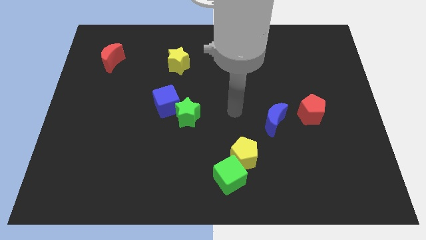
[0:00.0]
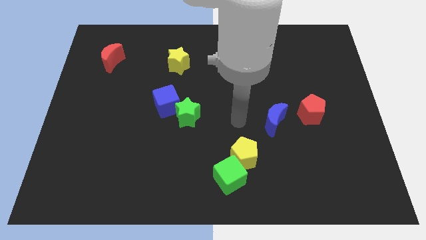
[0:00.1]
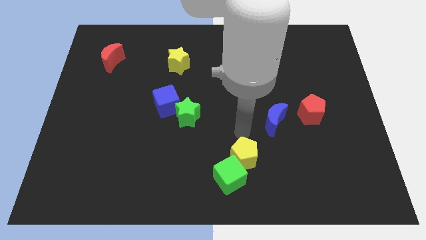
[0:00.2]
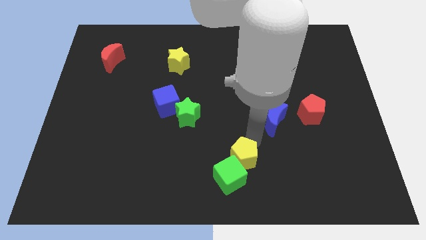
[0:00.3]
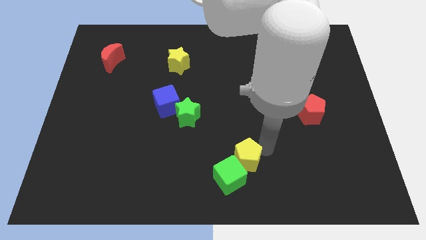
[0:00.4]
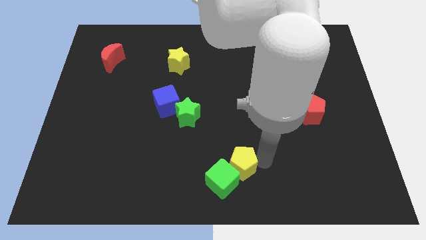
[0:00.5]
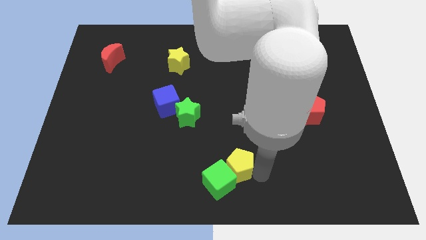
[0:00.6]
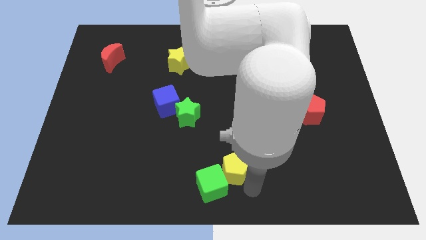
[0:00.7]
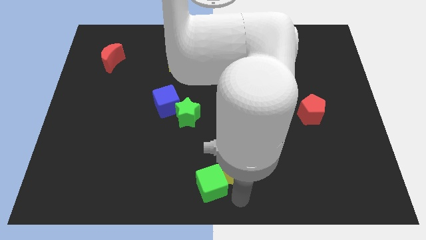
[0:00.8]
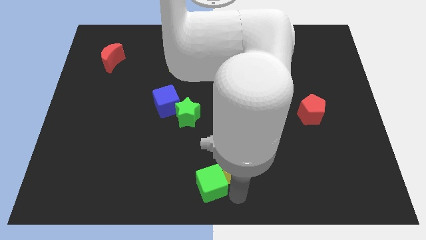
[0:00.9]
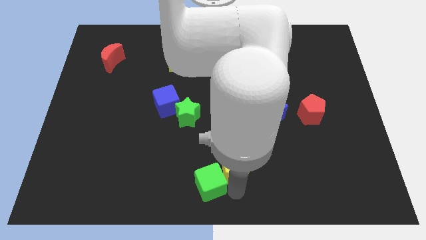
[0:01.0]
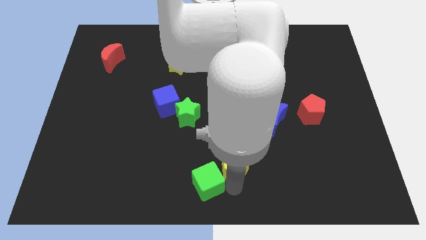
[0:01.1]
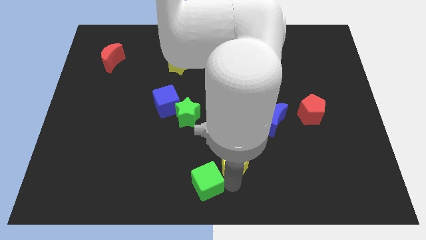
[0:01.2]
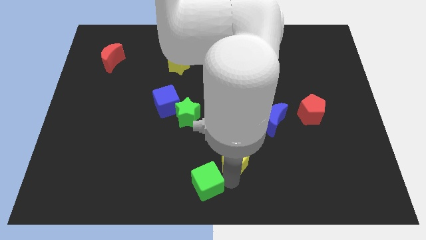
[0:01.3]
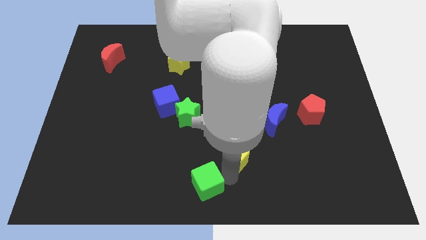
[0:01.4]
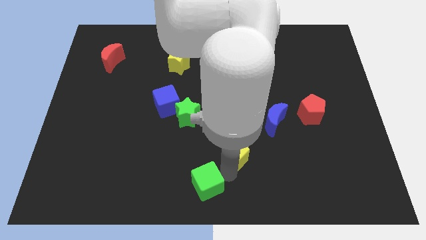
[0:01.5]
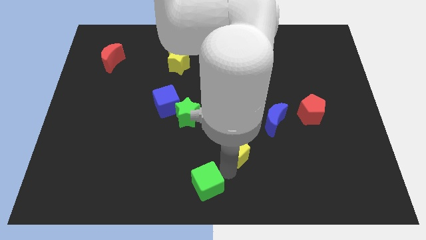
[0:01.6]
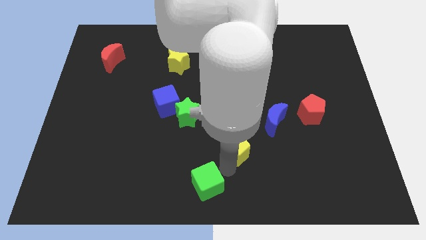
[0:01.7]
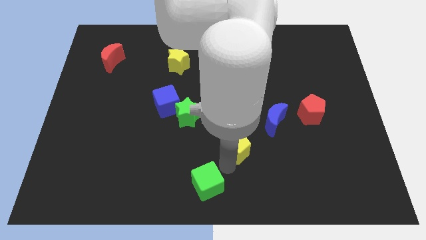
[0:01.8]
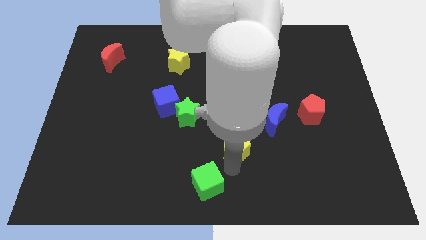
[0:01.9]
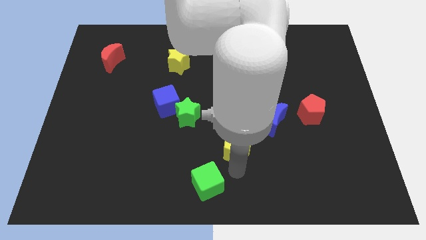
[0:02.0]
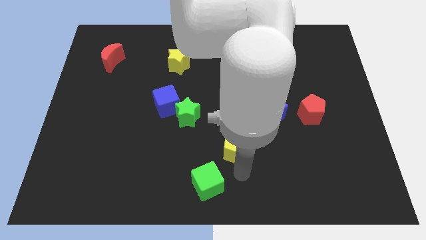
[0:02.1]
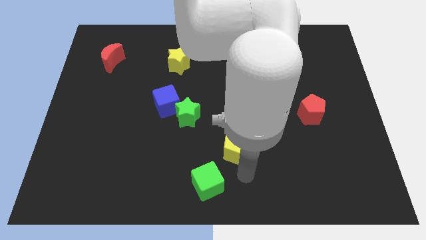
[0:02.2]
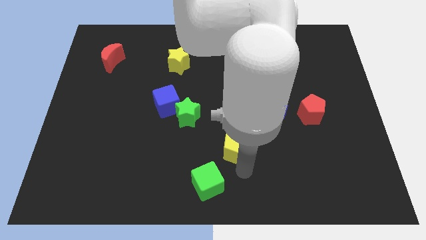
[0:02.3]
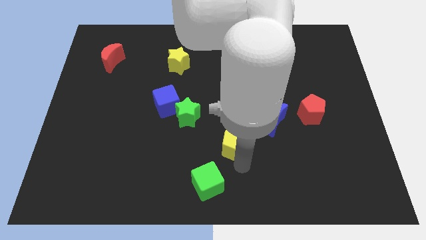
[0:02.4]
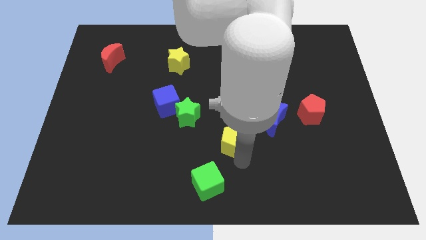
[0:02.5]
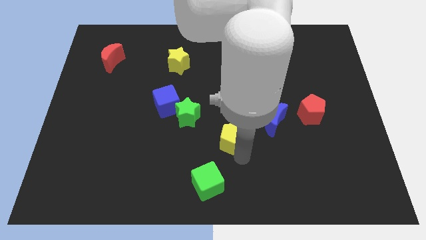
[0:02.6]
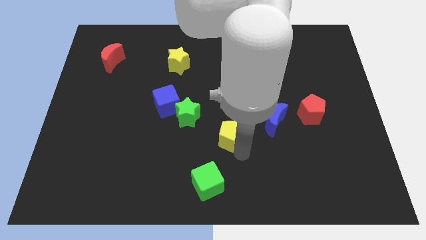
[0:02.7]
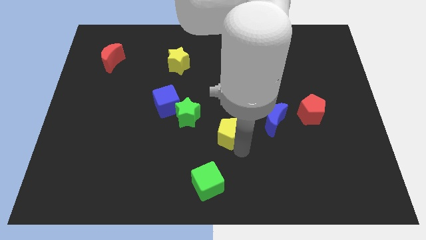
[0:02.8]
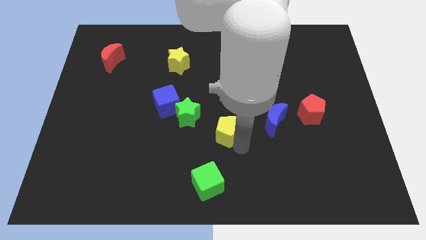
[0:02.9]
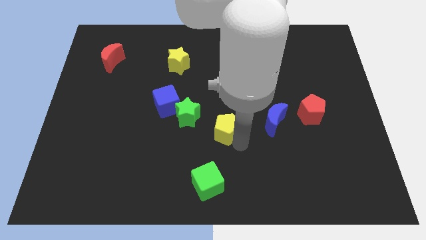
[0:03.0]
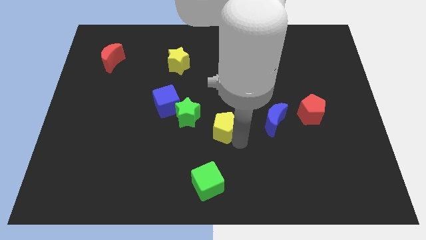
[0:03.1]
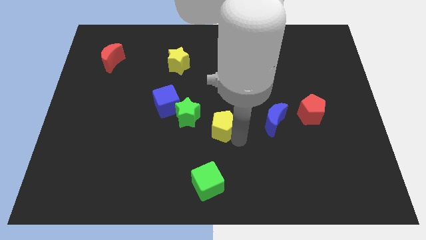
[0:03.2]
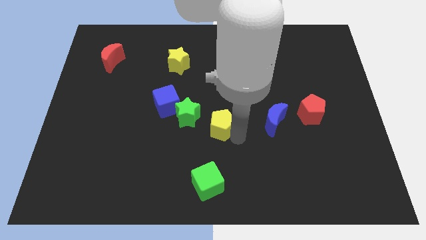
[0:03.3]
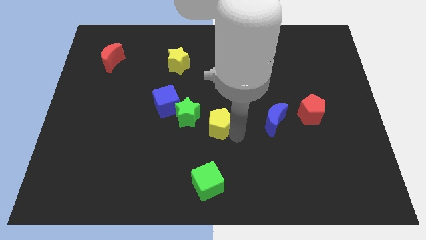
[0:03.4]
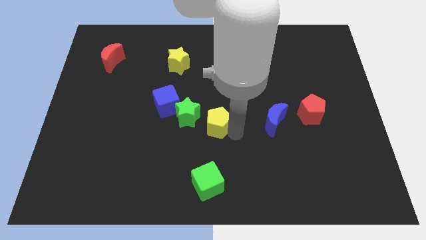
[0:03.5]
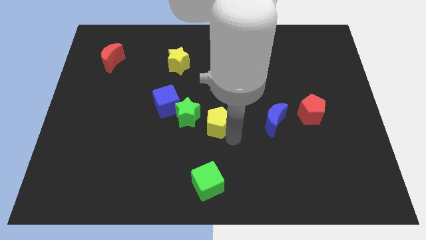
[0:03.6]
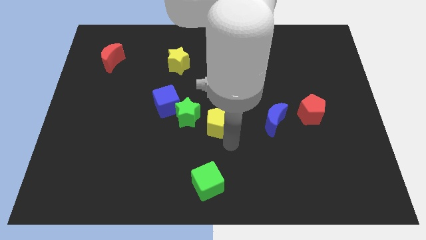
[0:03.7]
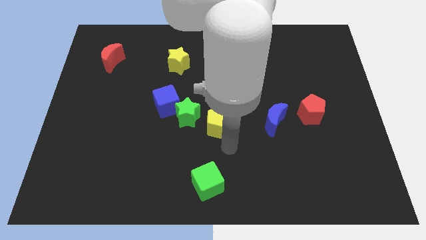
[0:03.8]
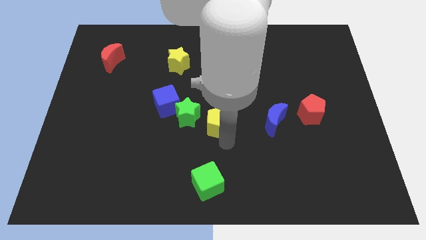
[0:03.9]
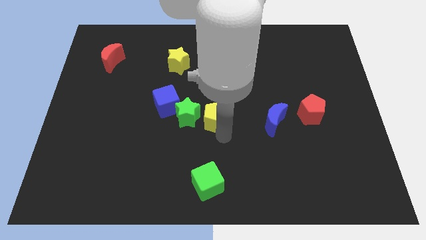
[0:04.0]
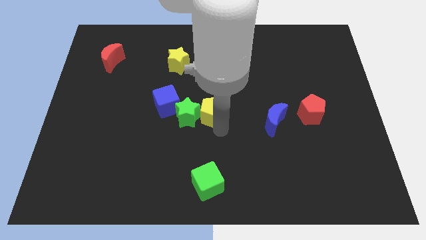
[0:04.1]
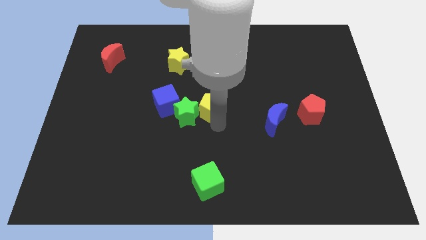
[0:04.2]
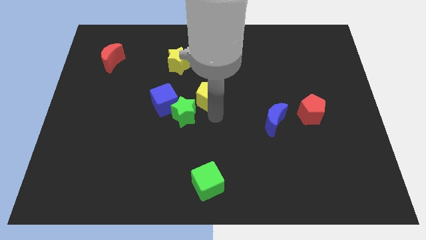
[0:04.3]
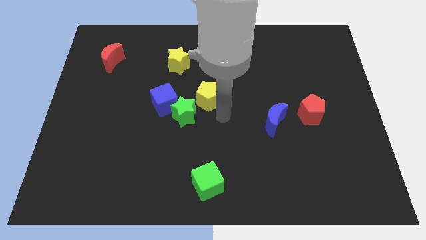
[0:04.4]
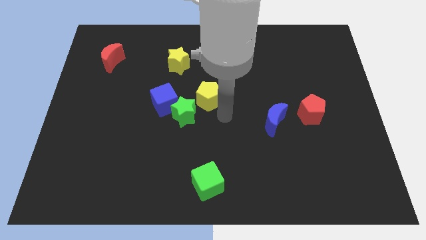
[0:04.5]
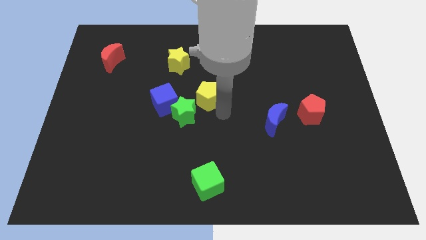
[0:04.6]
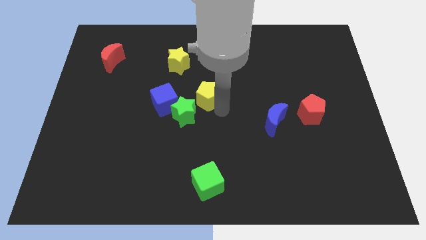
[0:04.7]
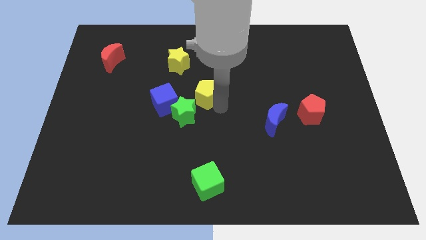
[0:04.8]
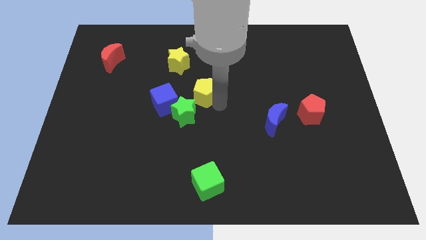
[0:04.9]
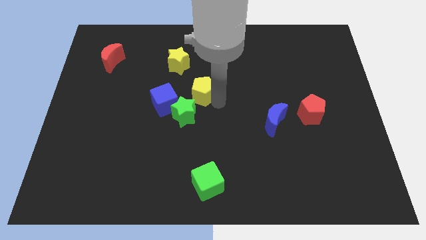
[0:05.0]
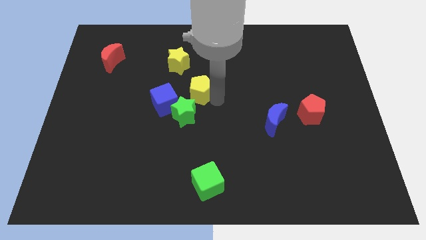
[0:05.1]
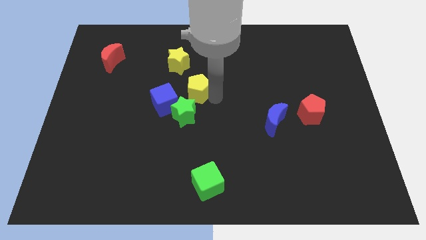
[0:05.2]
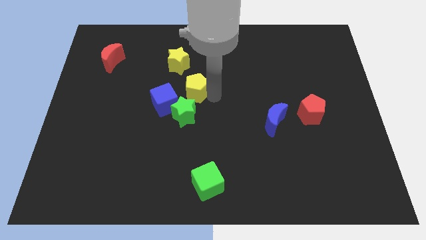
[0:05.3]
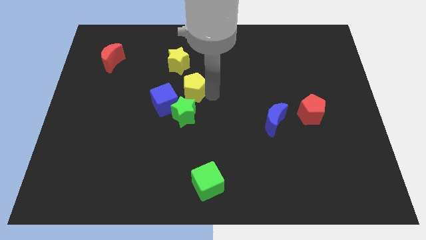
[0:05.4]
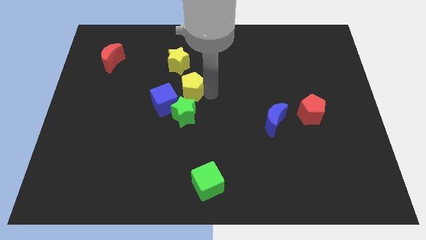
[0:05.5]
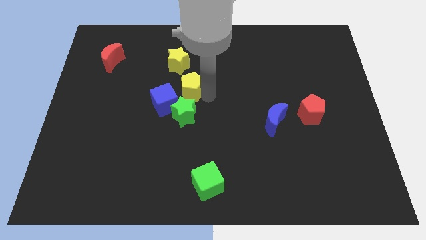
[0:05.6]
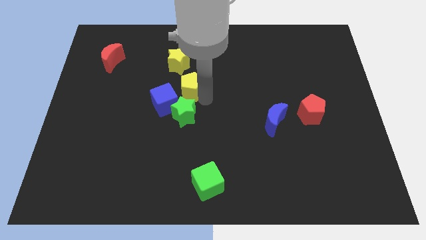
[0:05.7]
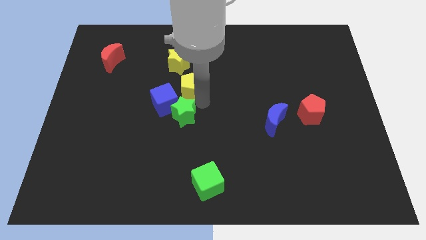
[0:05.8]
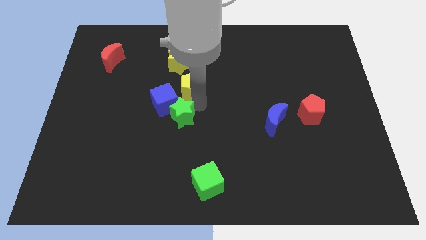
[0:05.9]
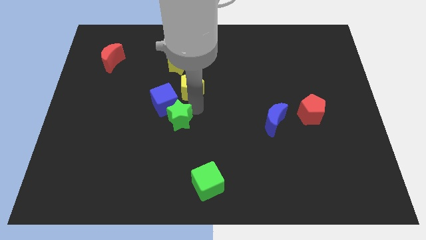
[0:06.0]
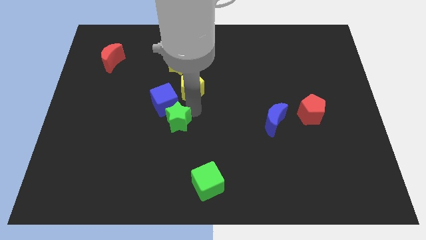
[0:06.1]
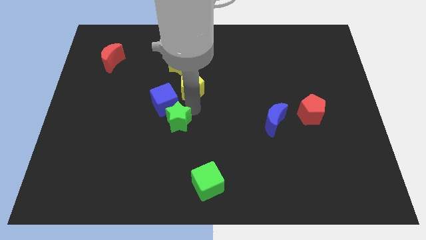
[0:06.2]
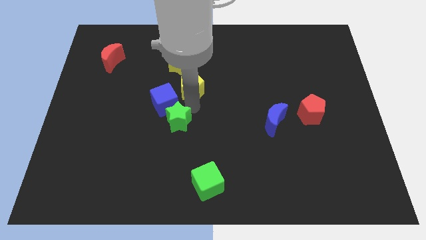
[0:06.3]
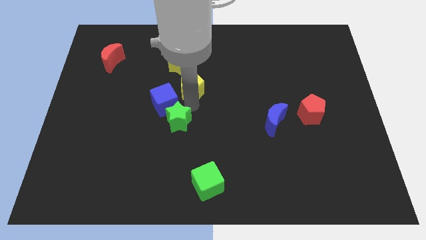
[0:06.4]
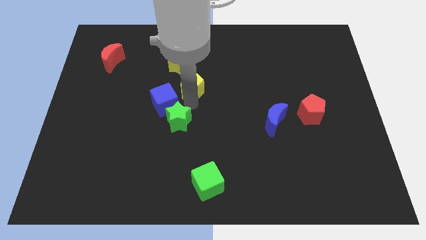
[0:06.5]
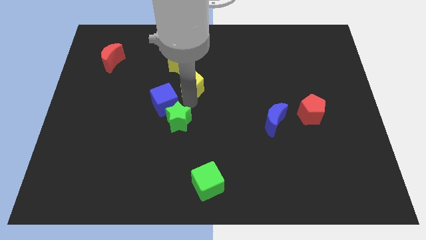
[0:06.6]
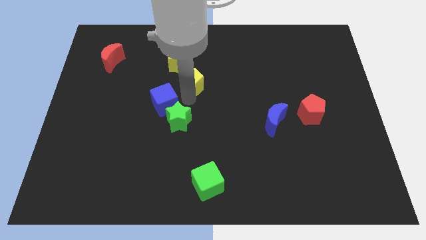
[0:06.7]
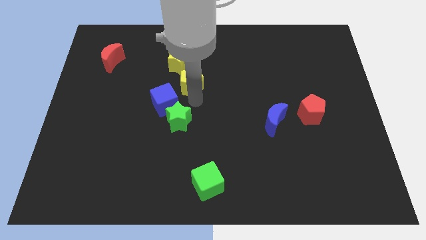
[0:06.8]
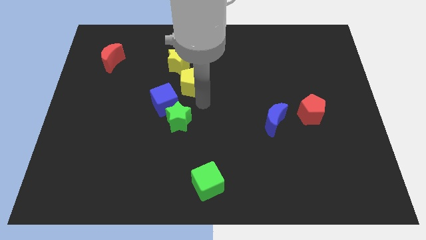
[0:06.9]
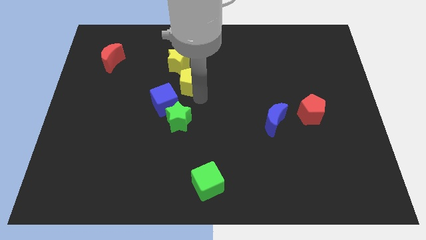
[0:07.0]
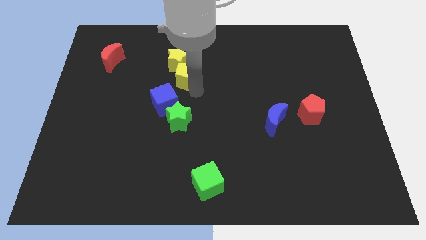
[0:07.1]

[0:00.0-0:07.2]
put the yellow pentagon towards the yellow star

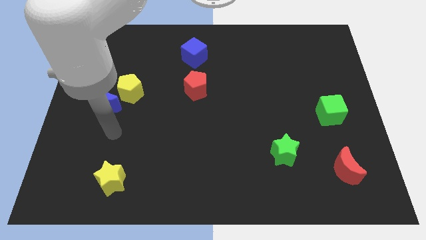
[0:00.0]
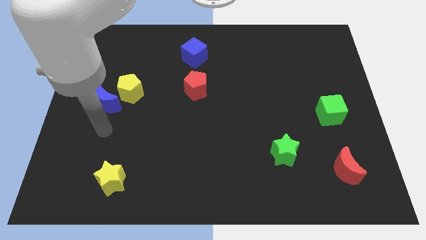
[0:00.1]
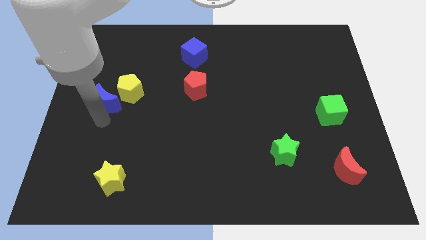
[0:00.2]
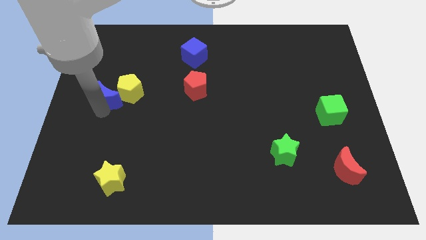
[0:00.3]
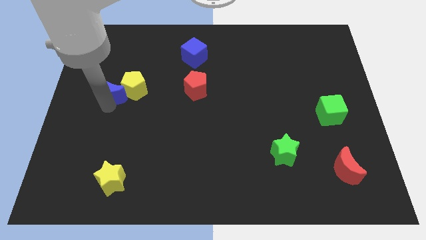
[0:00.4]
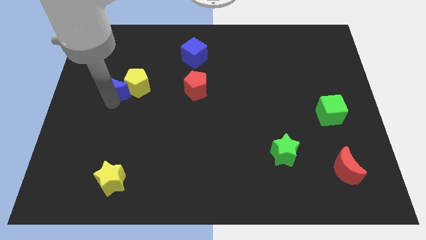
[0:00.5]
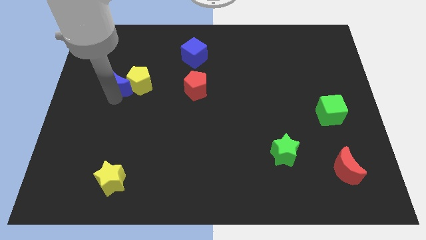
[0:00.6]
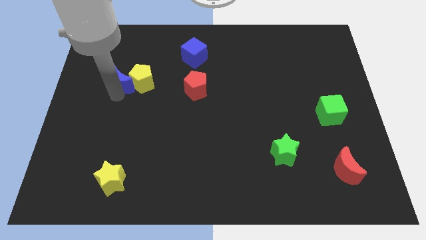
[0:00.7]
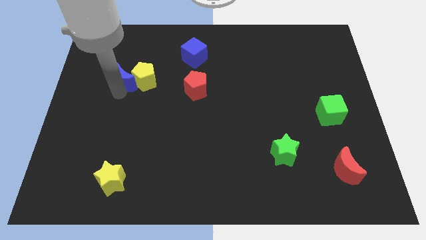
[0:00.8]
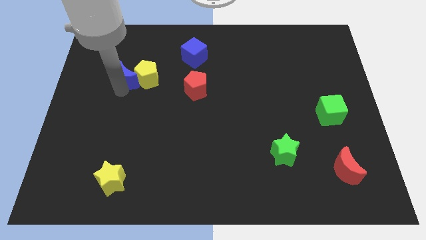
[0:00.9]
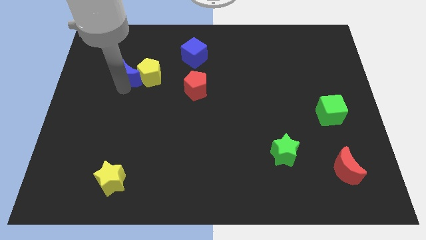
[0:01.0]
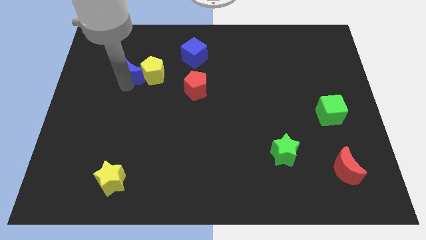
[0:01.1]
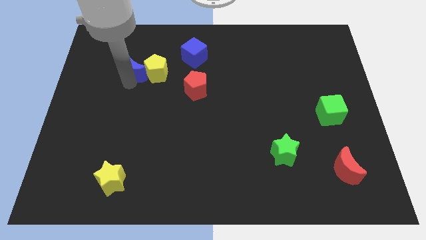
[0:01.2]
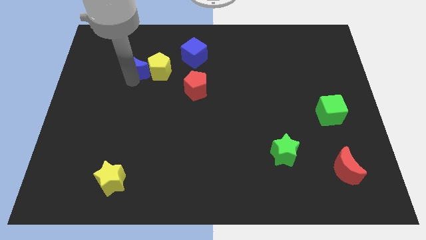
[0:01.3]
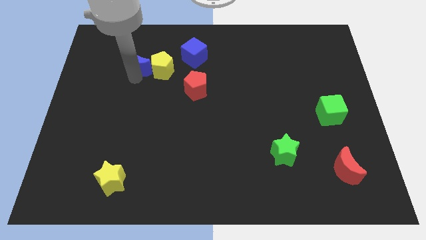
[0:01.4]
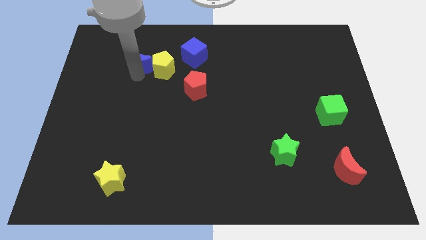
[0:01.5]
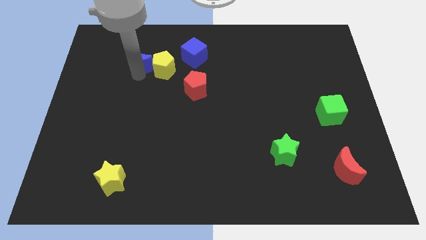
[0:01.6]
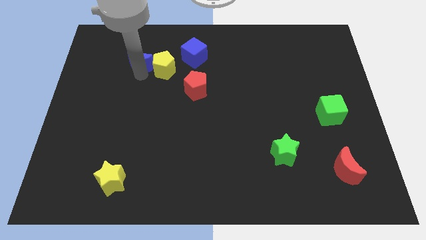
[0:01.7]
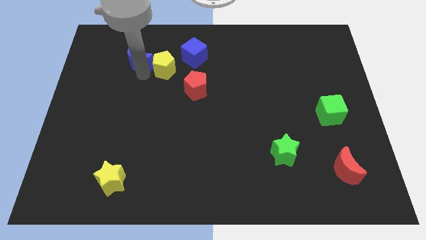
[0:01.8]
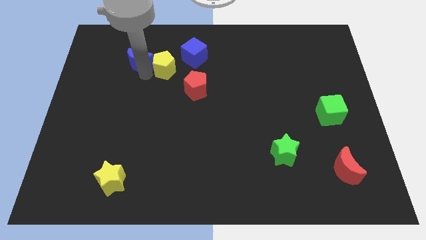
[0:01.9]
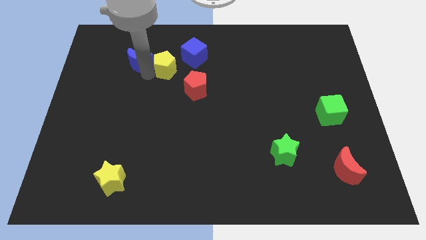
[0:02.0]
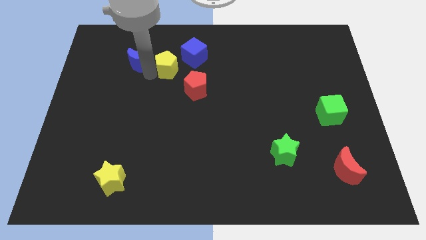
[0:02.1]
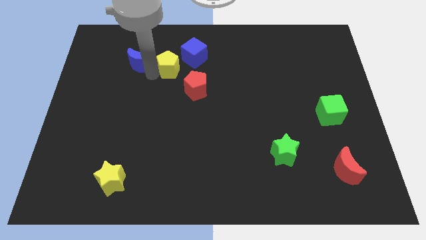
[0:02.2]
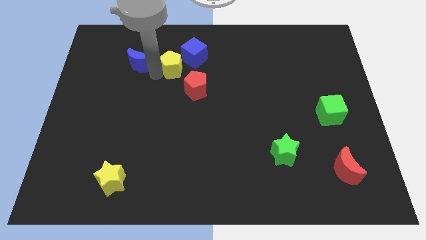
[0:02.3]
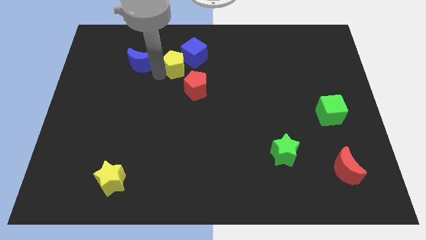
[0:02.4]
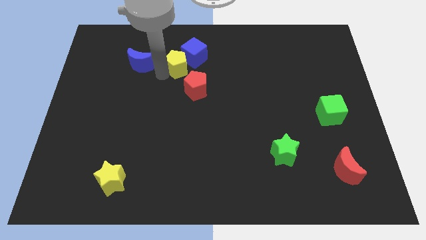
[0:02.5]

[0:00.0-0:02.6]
move the yellow pentagon next to the blue cube
